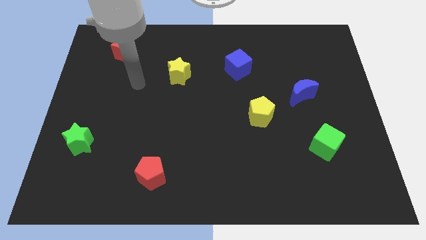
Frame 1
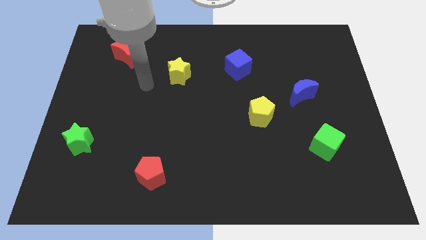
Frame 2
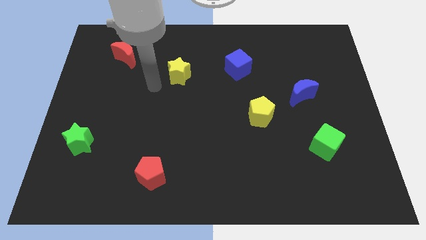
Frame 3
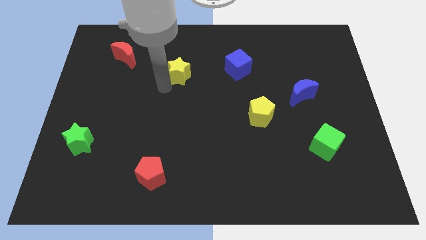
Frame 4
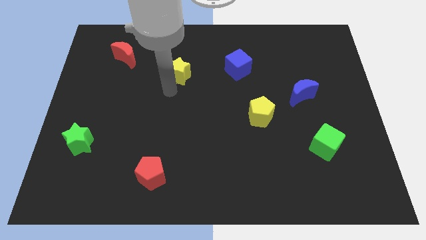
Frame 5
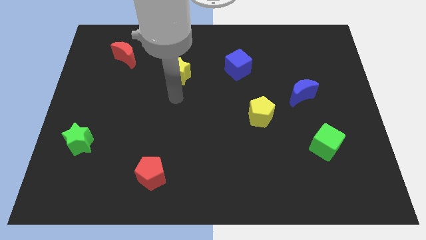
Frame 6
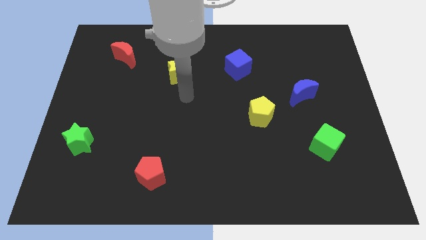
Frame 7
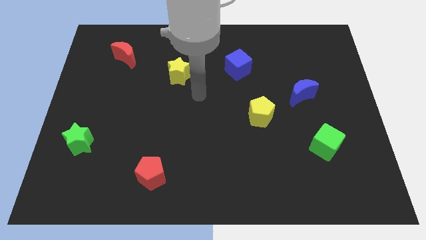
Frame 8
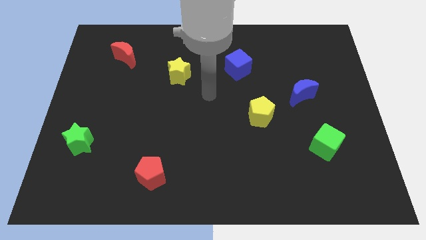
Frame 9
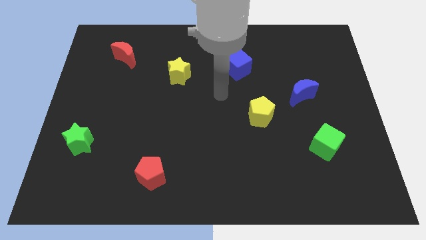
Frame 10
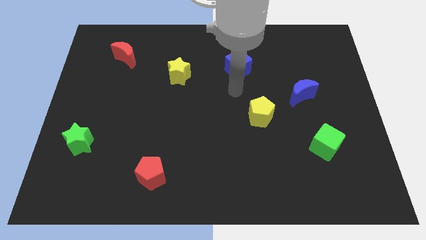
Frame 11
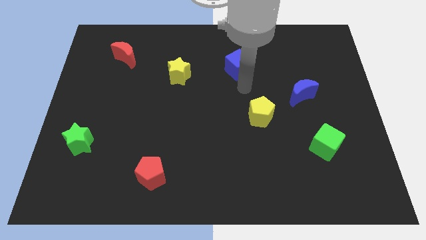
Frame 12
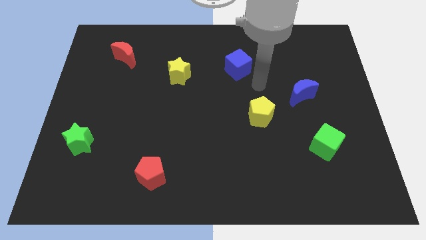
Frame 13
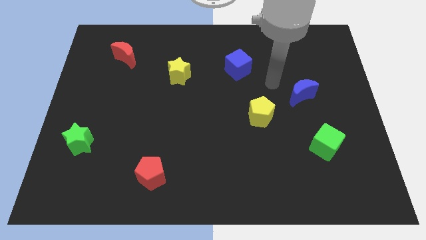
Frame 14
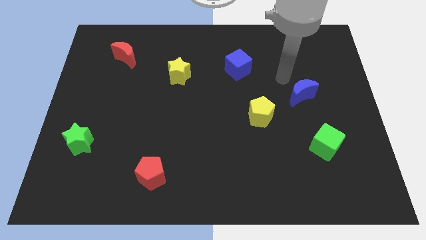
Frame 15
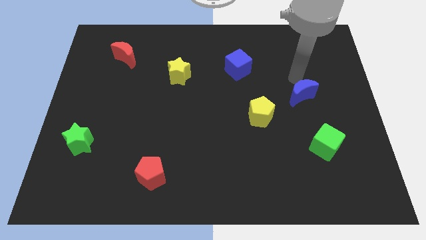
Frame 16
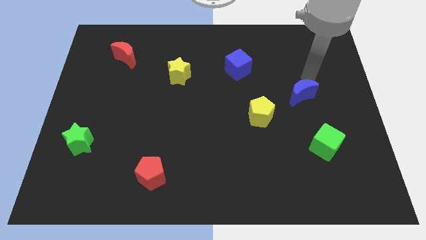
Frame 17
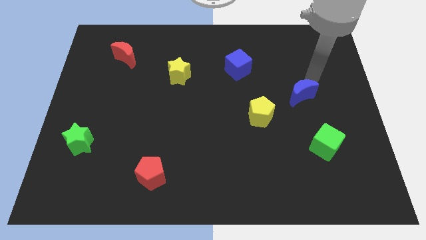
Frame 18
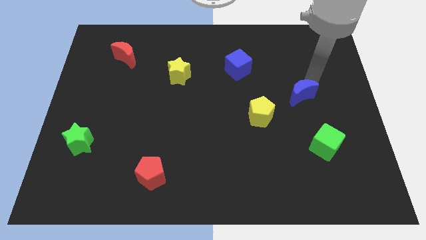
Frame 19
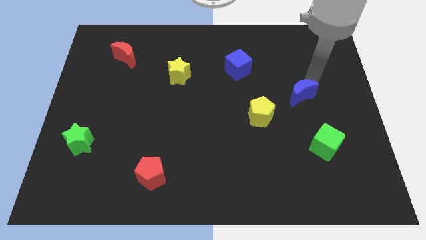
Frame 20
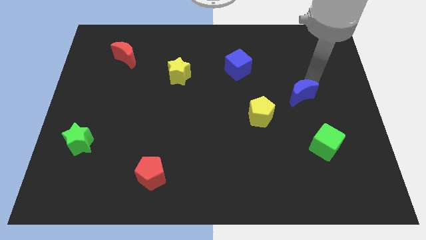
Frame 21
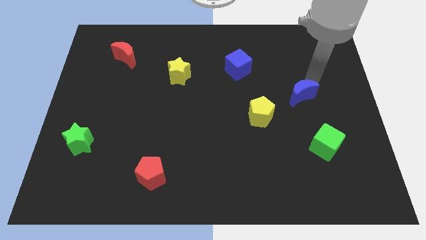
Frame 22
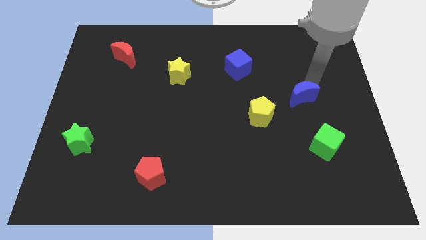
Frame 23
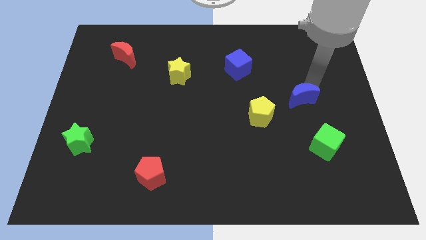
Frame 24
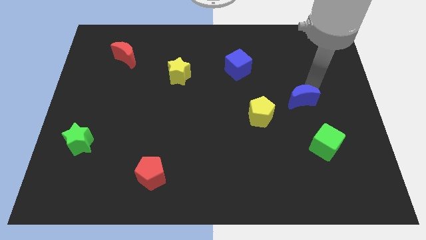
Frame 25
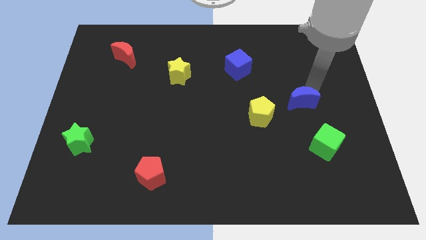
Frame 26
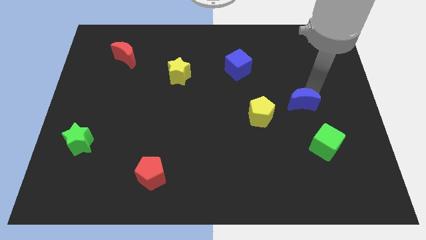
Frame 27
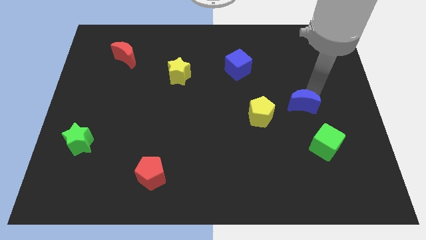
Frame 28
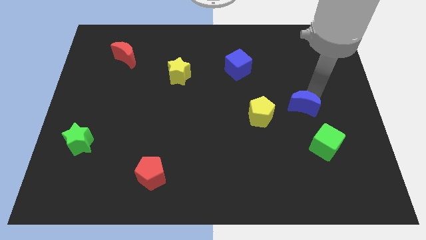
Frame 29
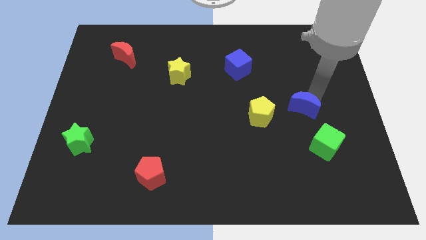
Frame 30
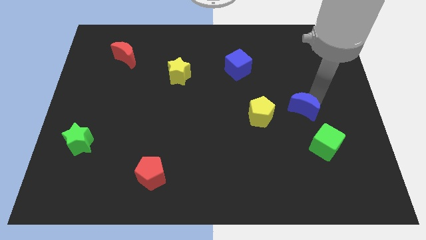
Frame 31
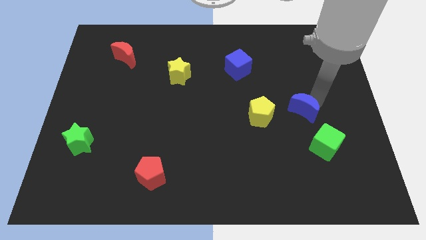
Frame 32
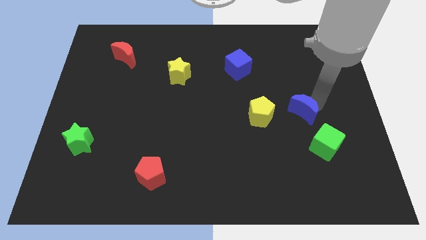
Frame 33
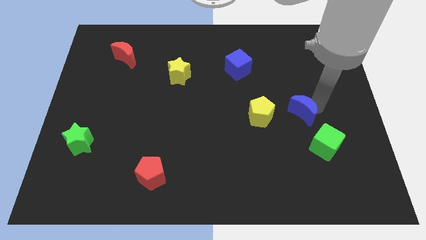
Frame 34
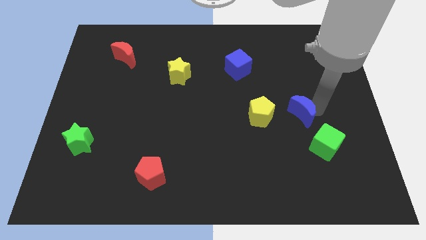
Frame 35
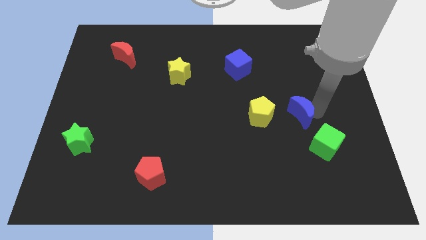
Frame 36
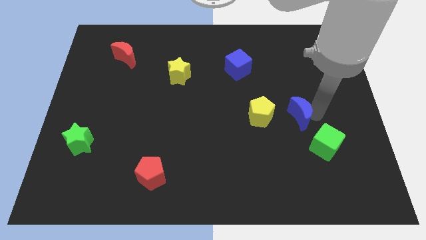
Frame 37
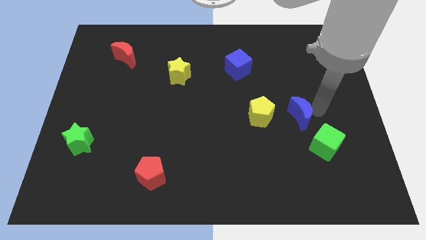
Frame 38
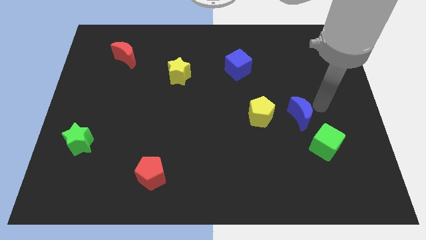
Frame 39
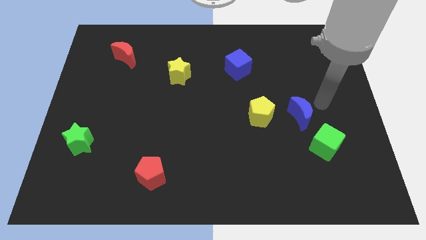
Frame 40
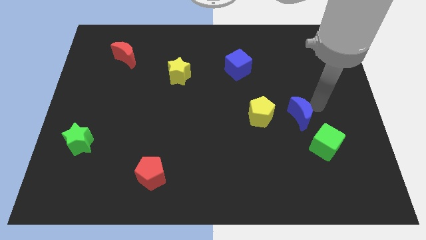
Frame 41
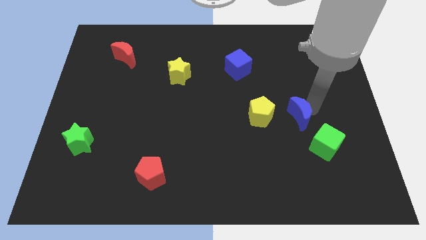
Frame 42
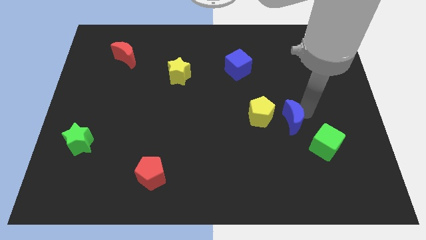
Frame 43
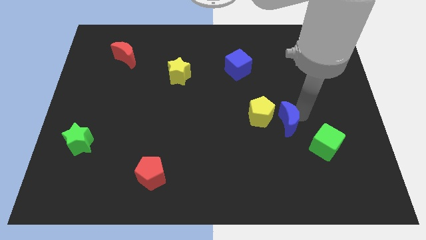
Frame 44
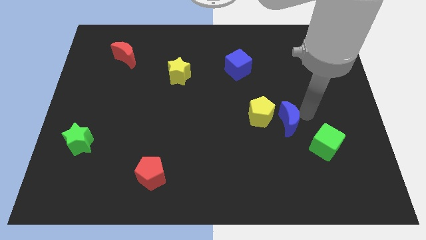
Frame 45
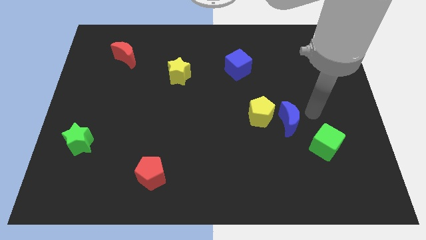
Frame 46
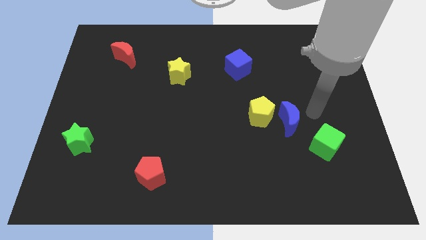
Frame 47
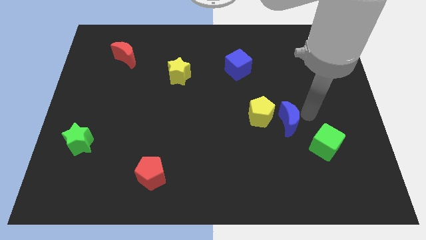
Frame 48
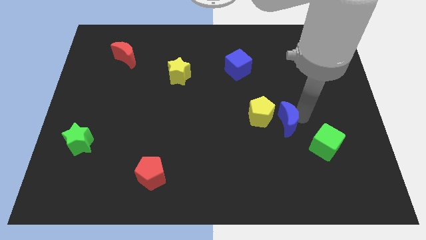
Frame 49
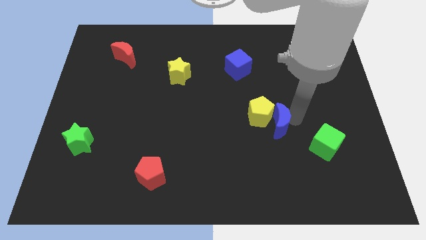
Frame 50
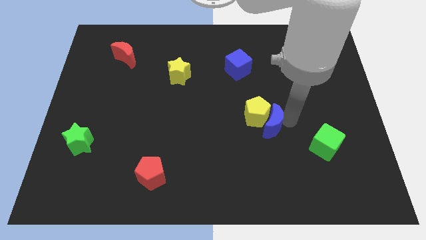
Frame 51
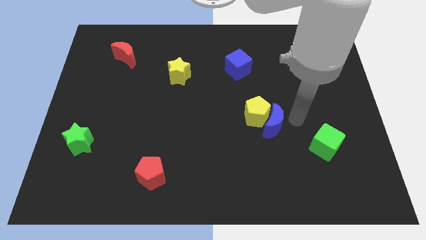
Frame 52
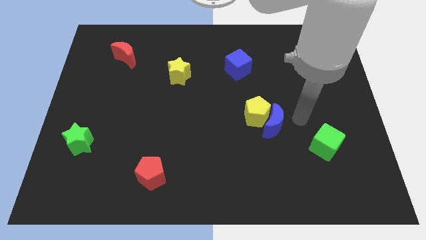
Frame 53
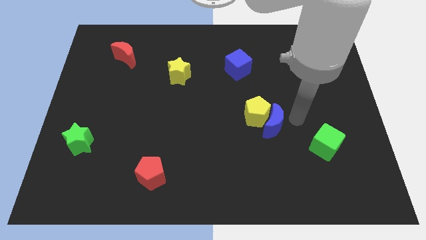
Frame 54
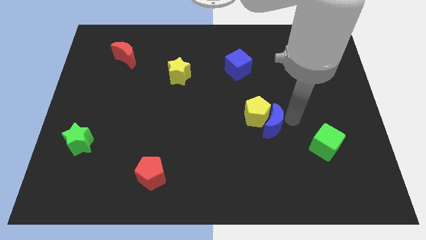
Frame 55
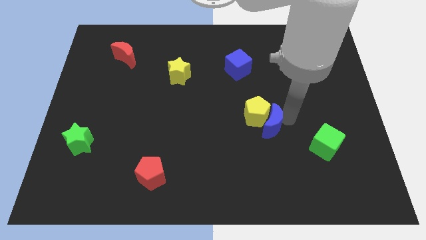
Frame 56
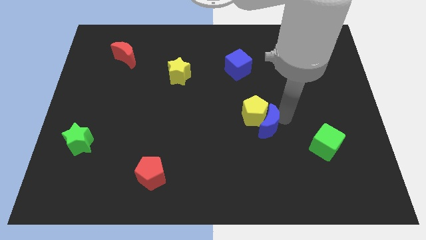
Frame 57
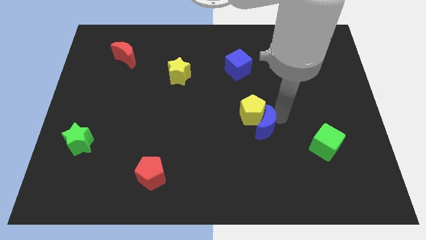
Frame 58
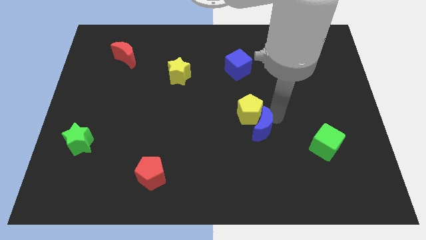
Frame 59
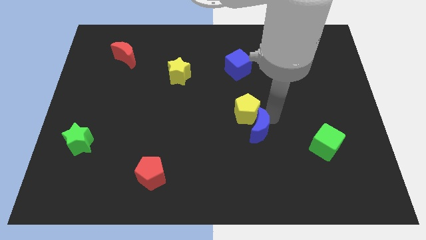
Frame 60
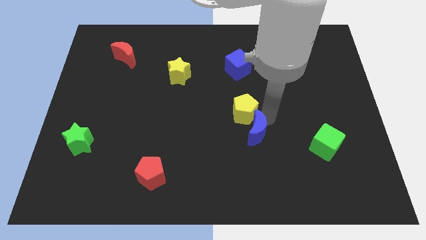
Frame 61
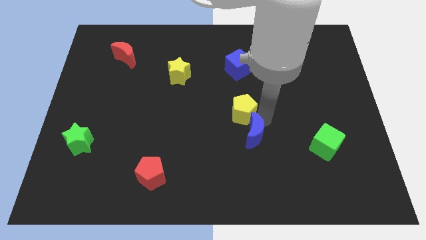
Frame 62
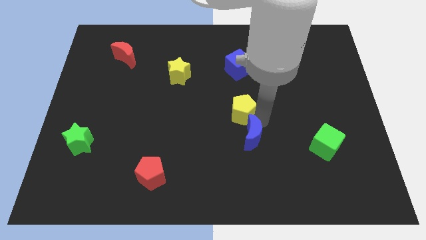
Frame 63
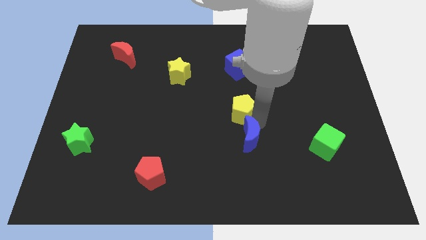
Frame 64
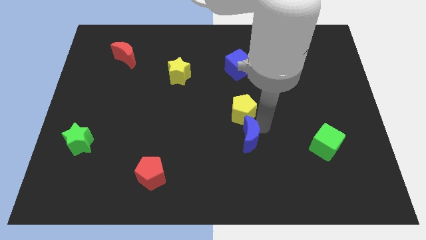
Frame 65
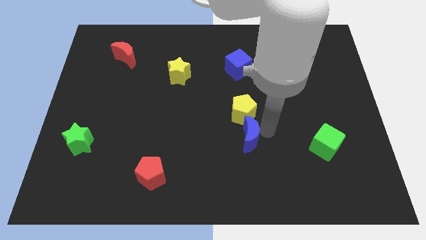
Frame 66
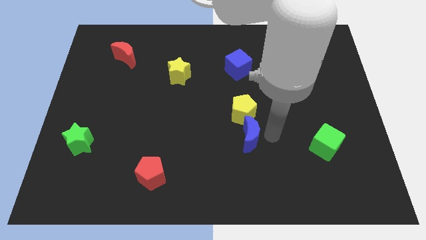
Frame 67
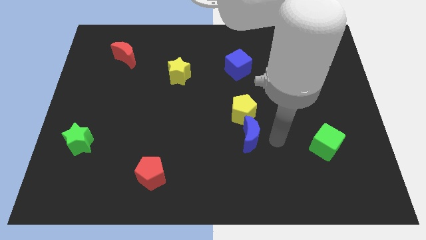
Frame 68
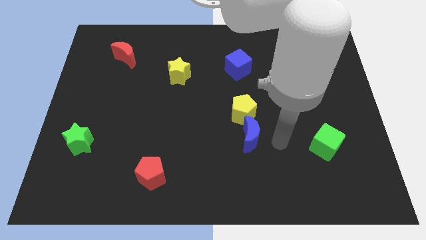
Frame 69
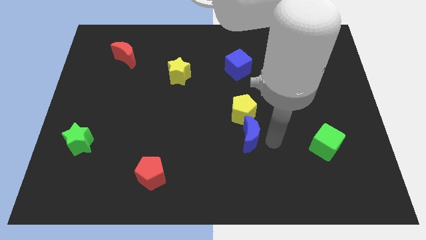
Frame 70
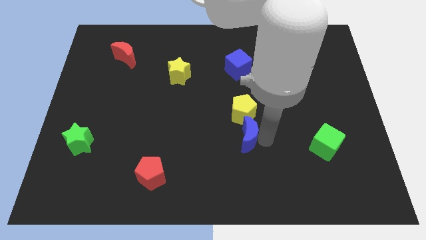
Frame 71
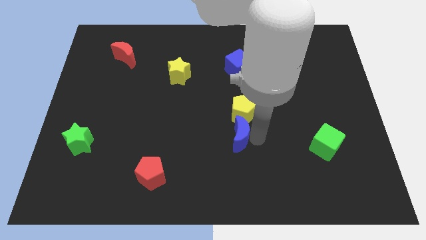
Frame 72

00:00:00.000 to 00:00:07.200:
move the blue moon to the bottom left side of the yellow pentagon

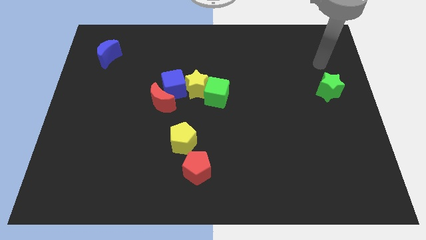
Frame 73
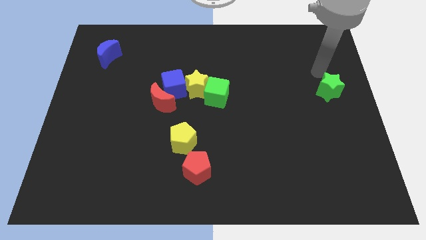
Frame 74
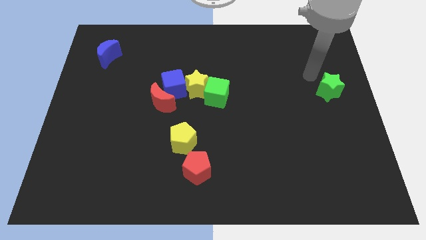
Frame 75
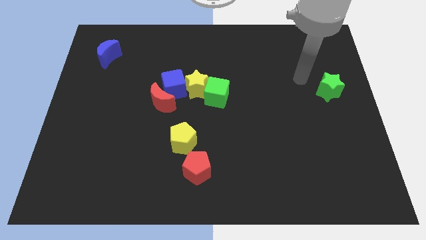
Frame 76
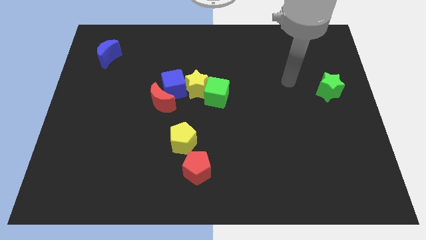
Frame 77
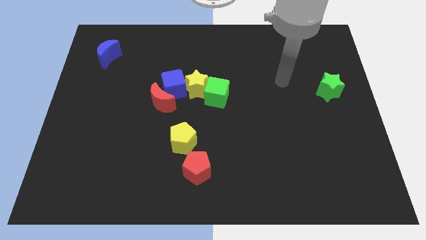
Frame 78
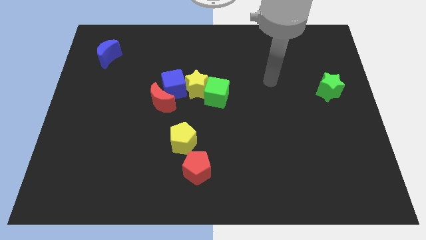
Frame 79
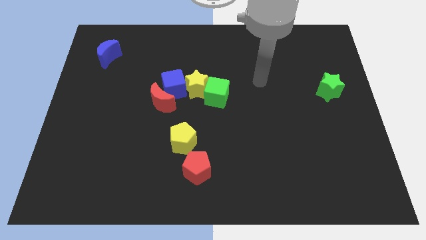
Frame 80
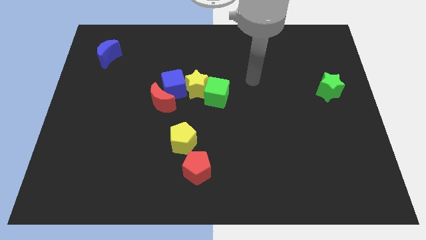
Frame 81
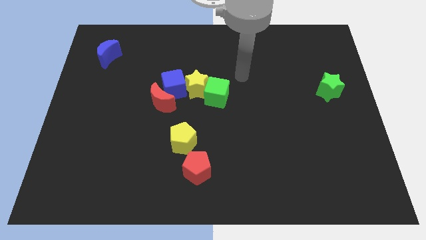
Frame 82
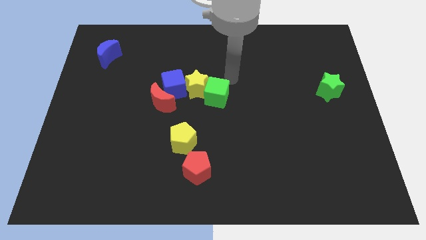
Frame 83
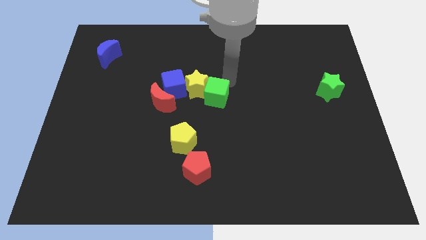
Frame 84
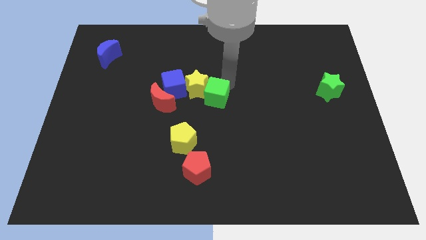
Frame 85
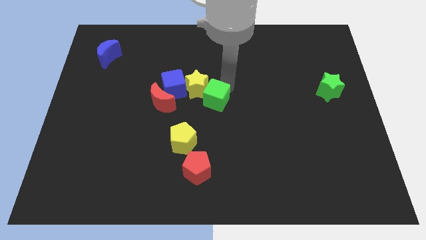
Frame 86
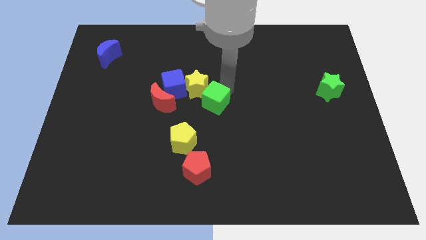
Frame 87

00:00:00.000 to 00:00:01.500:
put the green cube to the bottom of the yellow star
